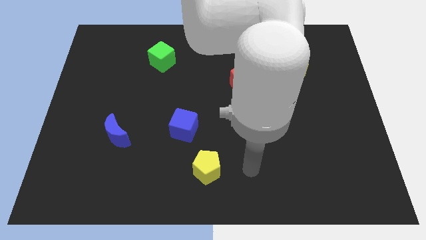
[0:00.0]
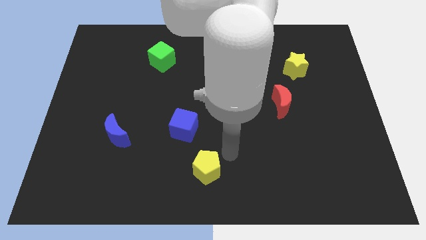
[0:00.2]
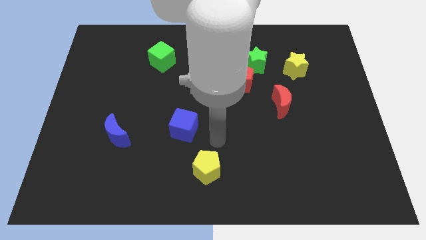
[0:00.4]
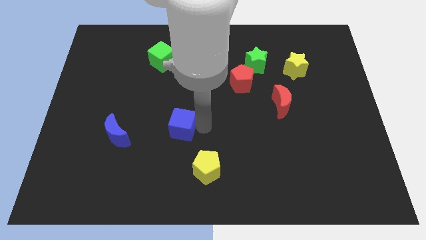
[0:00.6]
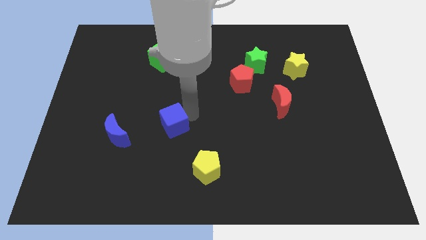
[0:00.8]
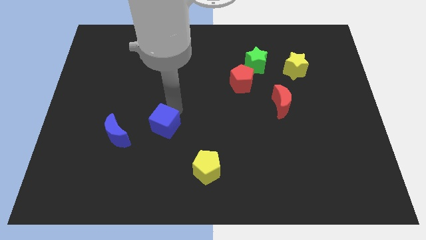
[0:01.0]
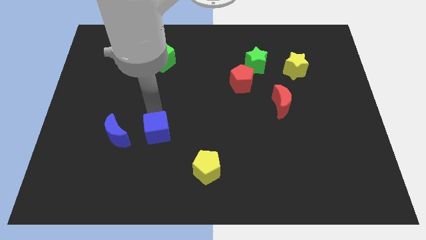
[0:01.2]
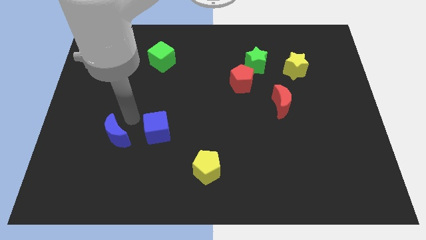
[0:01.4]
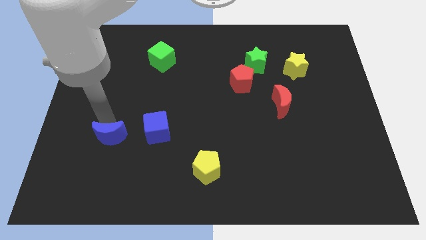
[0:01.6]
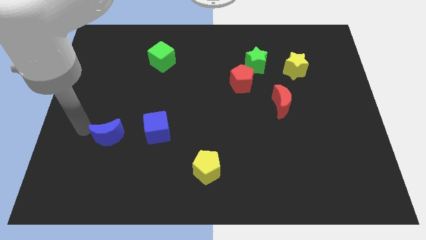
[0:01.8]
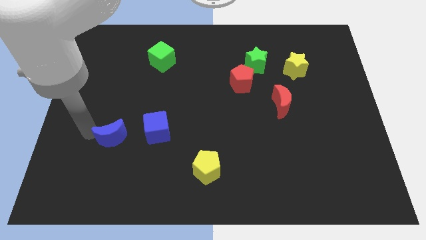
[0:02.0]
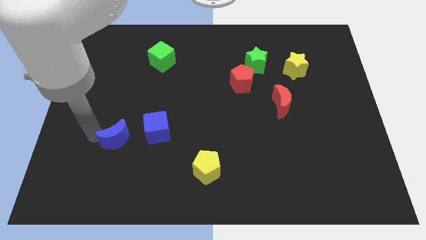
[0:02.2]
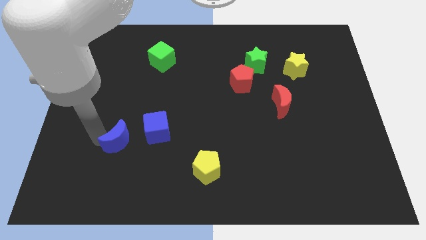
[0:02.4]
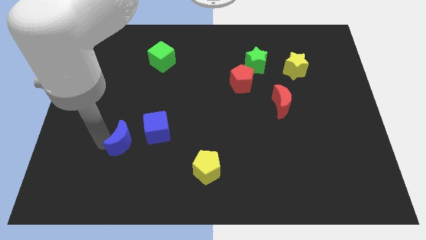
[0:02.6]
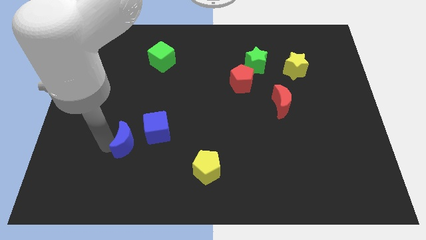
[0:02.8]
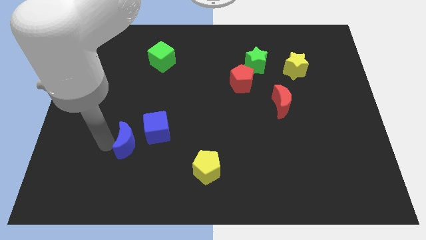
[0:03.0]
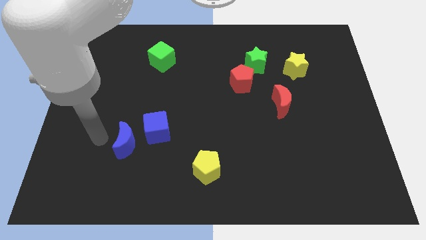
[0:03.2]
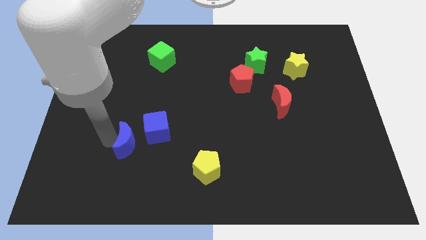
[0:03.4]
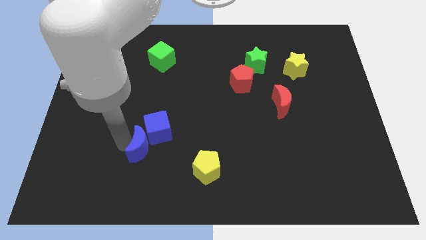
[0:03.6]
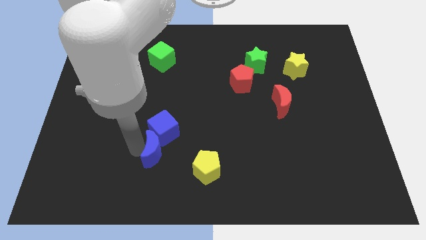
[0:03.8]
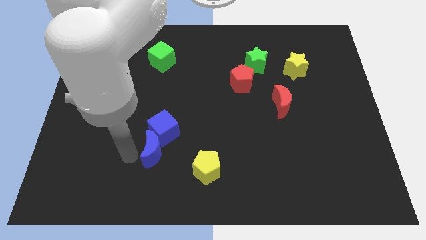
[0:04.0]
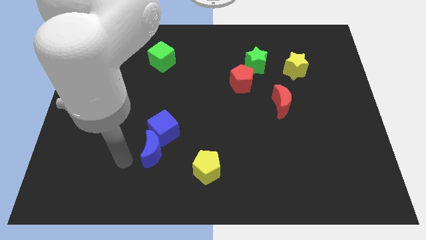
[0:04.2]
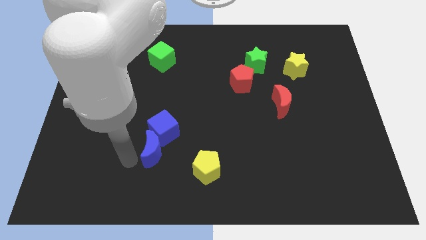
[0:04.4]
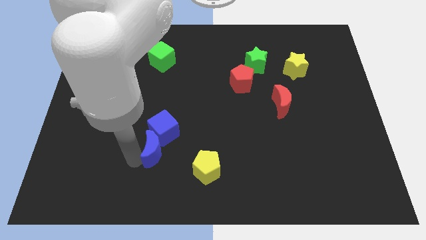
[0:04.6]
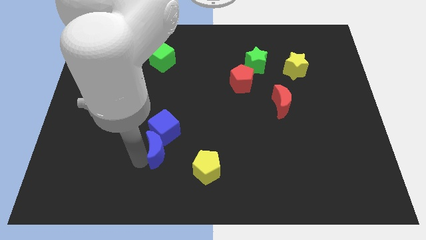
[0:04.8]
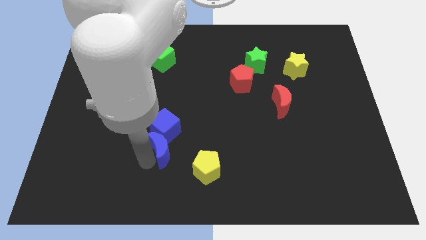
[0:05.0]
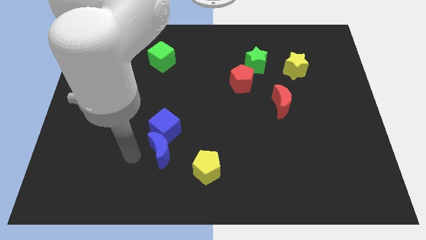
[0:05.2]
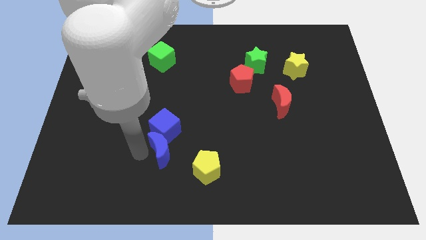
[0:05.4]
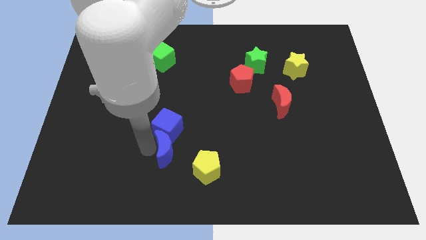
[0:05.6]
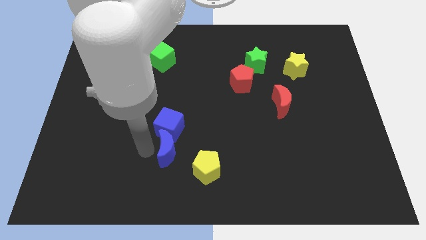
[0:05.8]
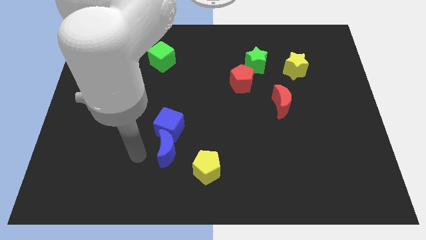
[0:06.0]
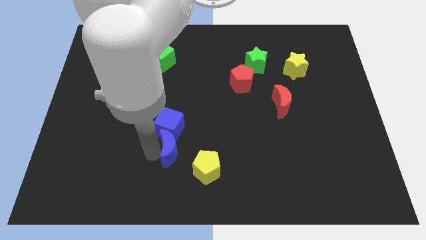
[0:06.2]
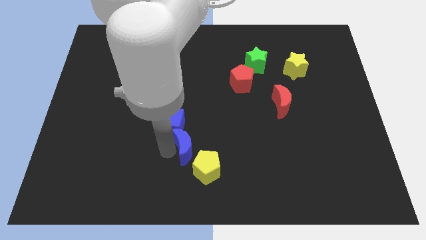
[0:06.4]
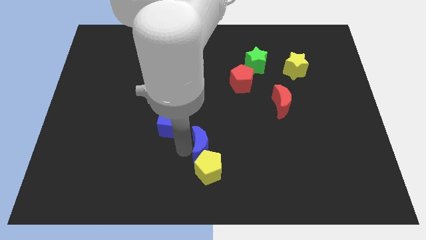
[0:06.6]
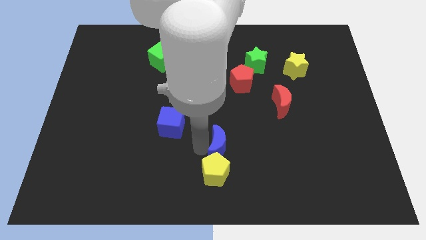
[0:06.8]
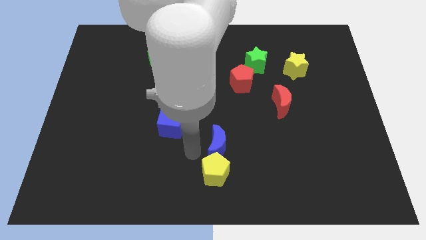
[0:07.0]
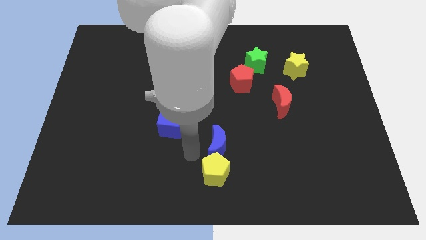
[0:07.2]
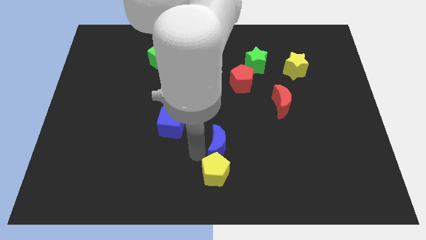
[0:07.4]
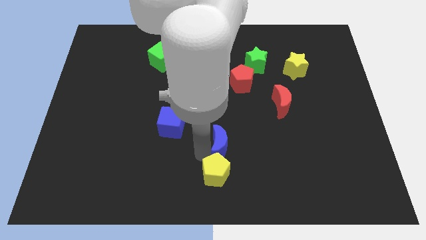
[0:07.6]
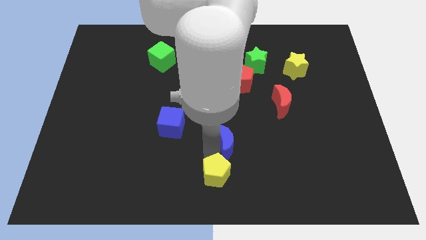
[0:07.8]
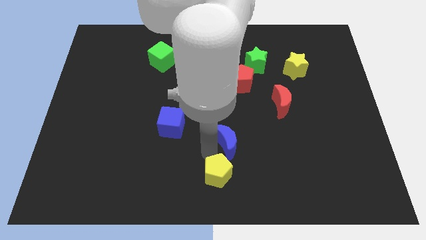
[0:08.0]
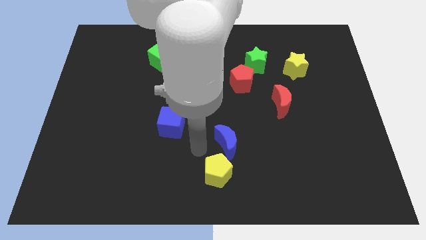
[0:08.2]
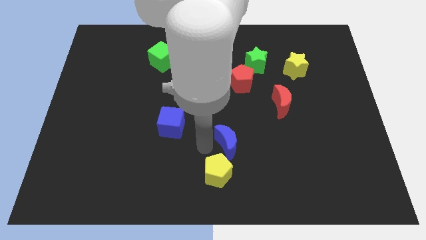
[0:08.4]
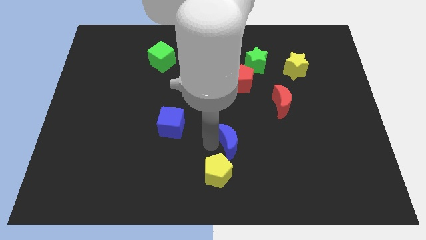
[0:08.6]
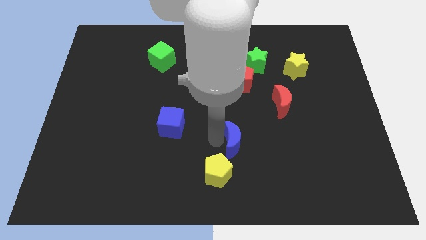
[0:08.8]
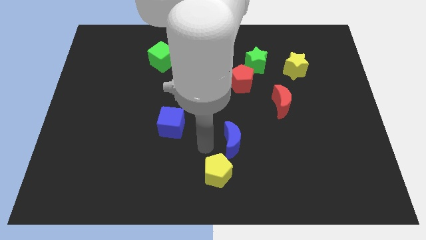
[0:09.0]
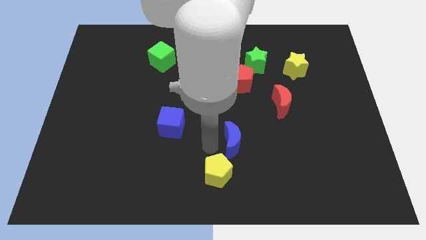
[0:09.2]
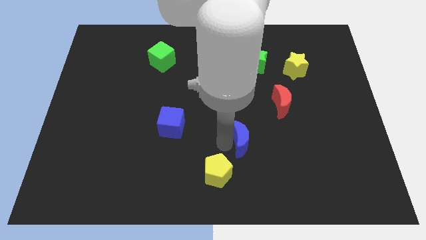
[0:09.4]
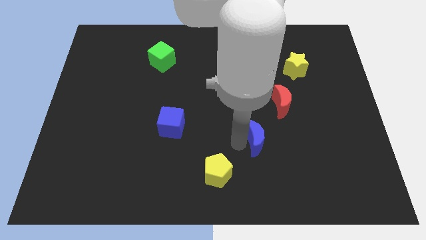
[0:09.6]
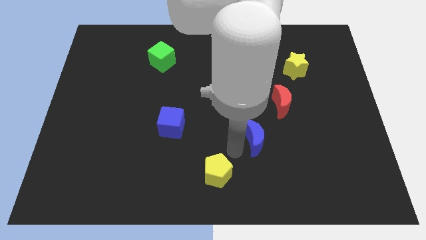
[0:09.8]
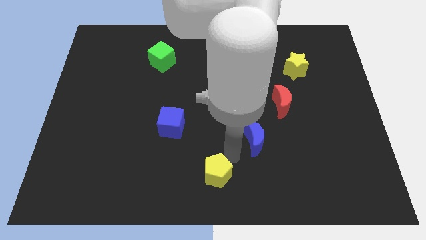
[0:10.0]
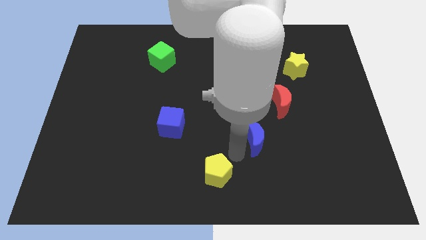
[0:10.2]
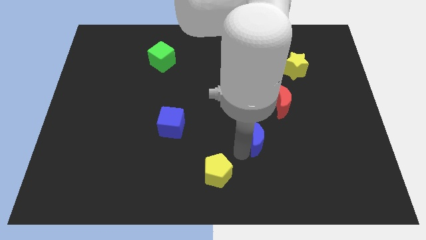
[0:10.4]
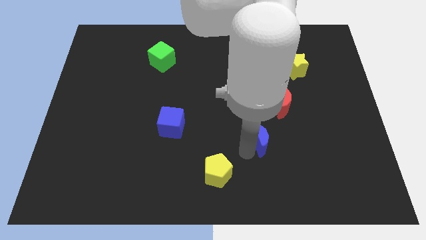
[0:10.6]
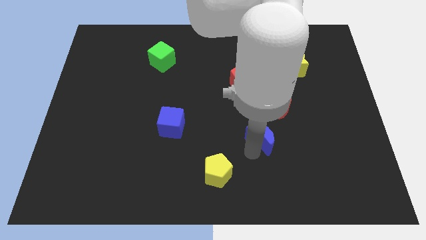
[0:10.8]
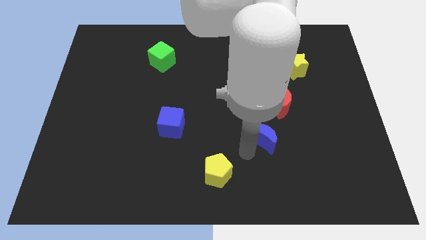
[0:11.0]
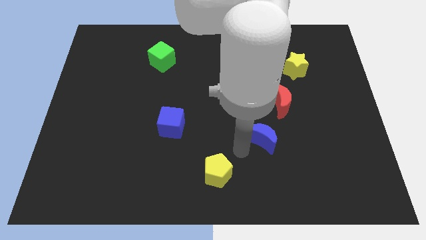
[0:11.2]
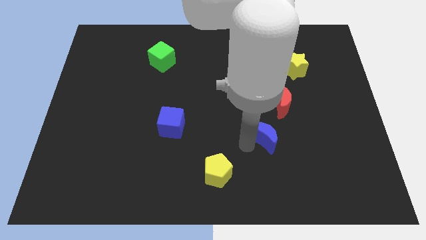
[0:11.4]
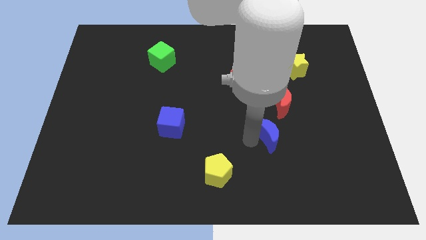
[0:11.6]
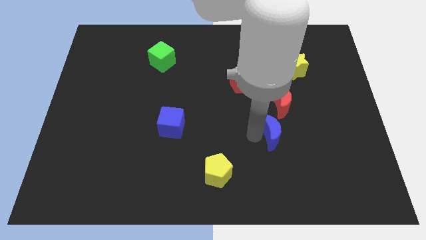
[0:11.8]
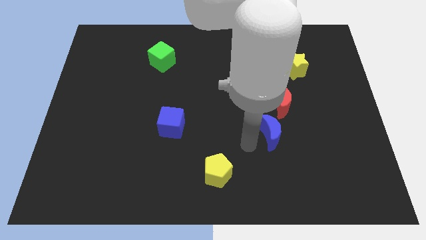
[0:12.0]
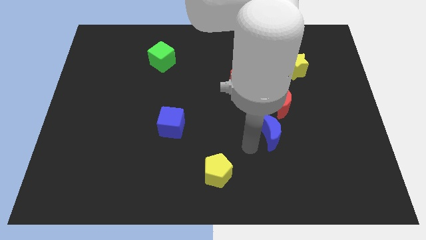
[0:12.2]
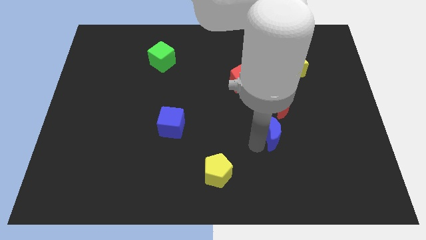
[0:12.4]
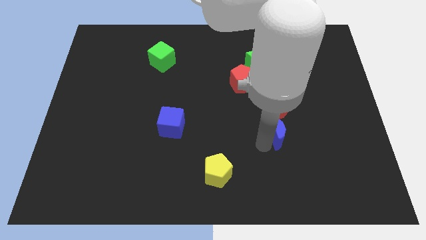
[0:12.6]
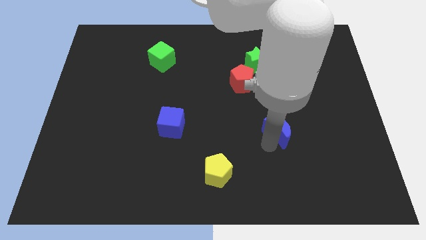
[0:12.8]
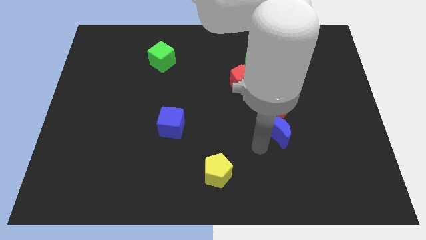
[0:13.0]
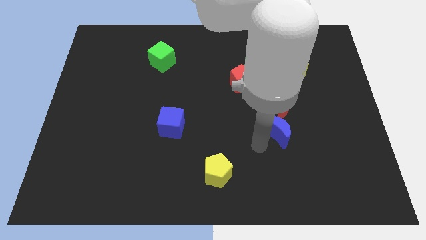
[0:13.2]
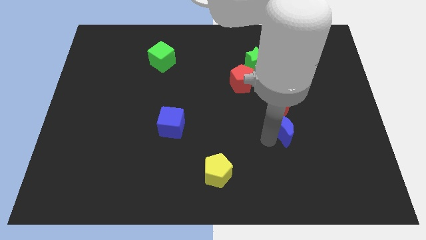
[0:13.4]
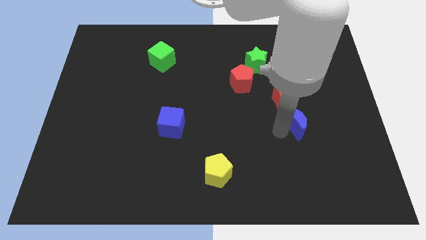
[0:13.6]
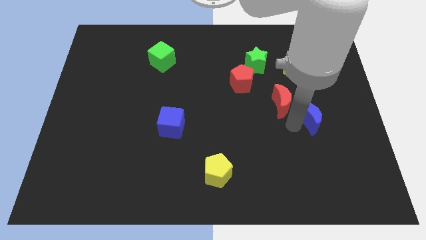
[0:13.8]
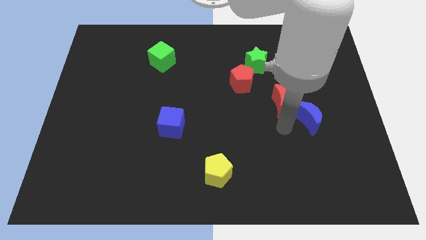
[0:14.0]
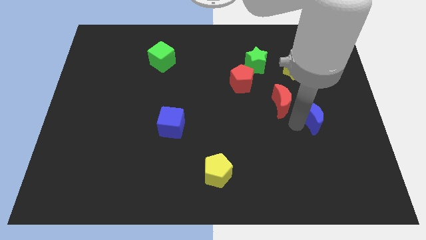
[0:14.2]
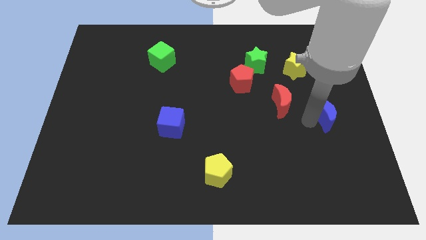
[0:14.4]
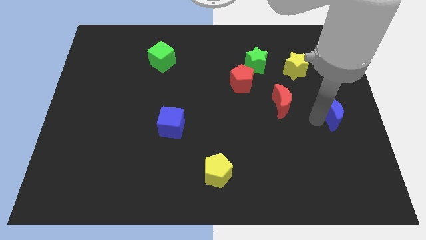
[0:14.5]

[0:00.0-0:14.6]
push the blue moon to the center right
